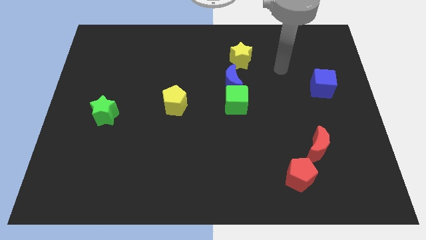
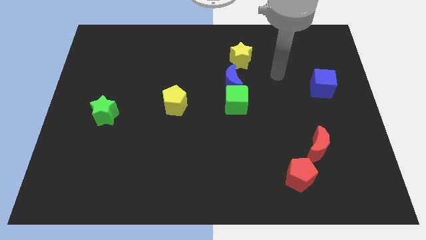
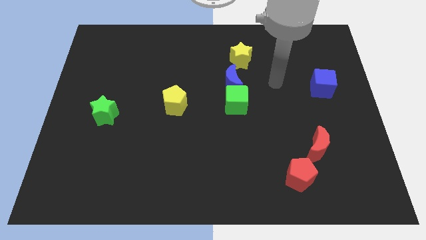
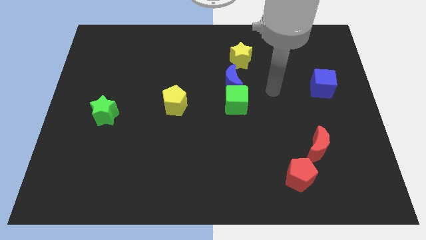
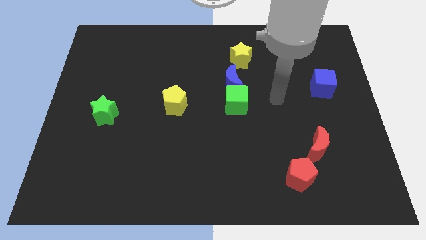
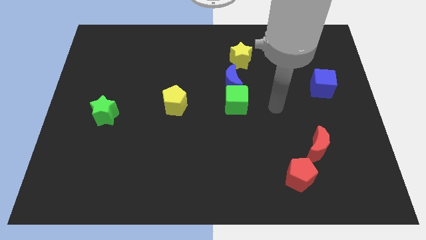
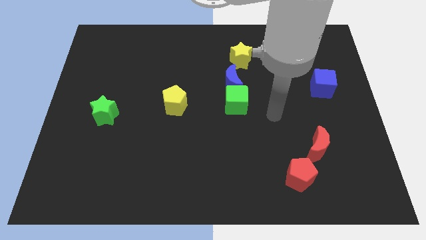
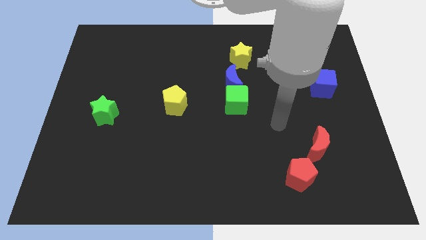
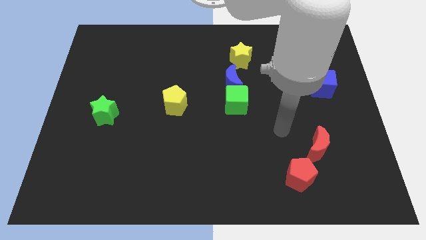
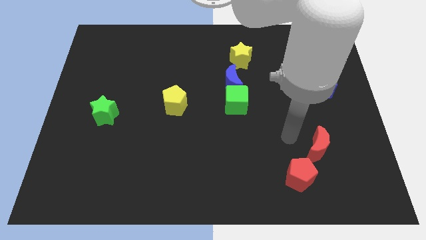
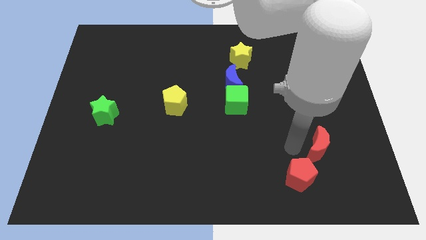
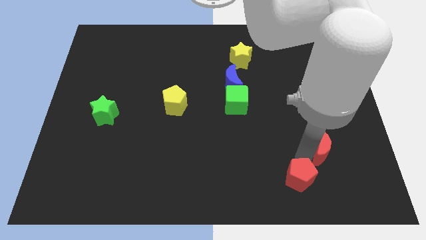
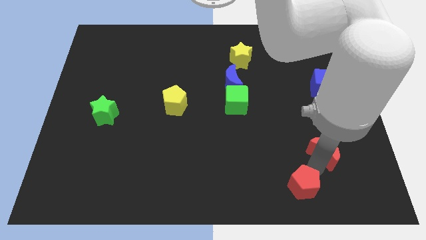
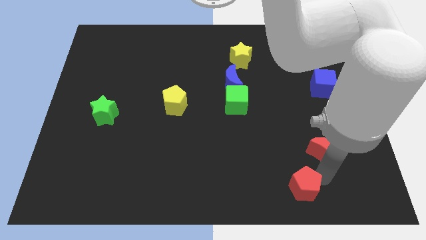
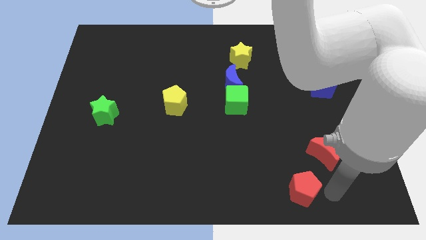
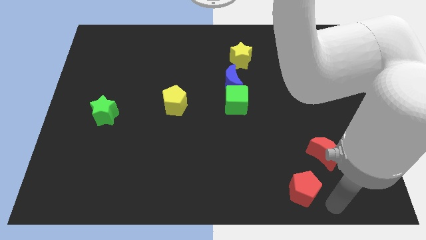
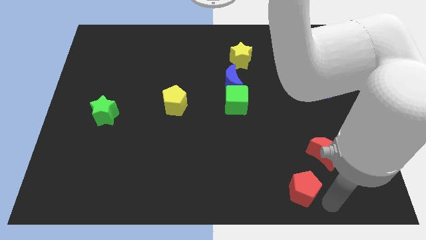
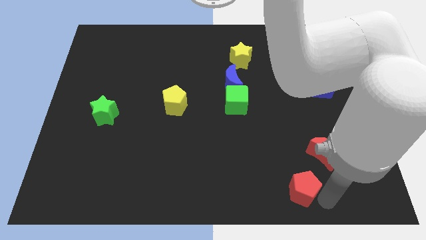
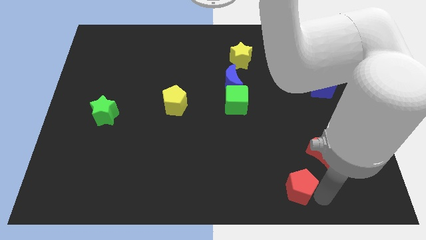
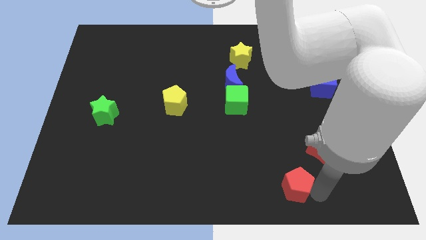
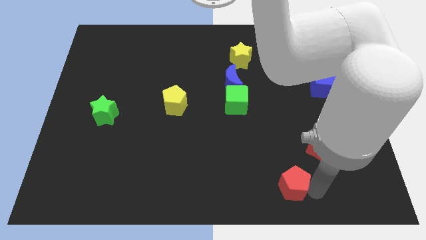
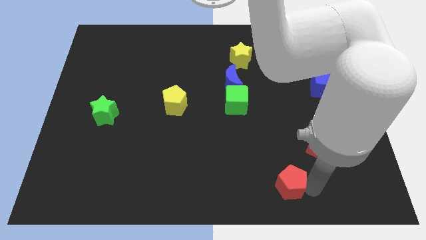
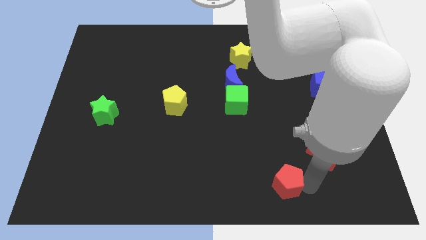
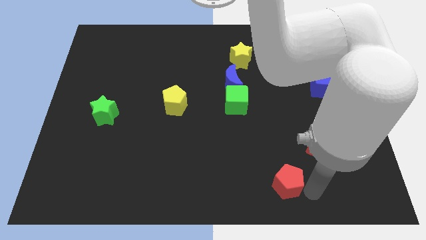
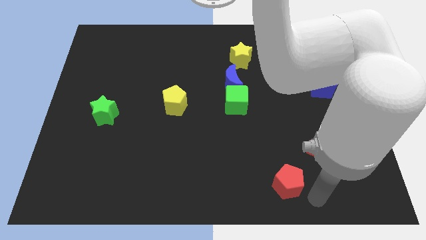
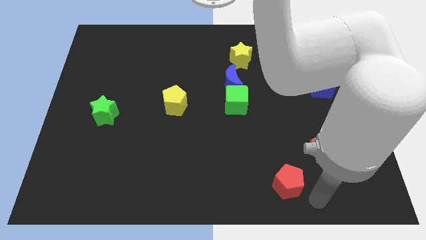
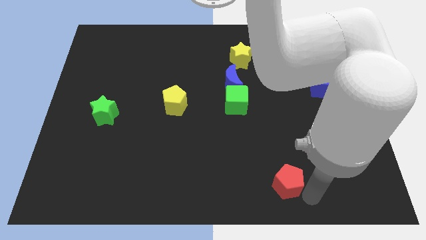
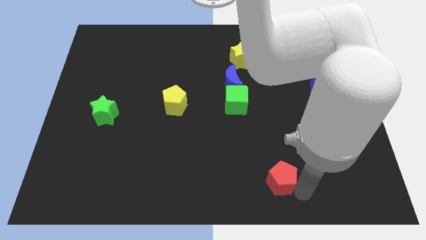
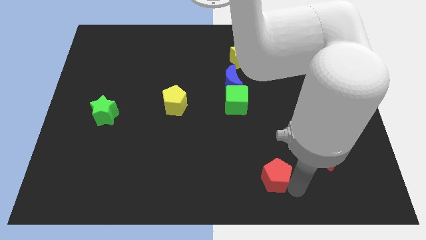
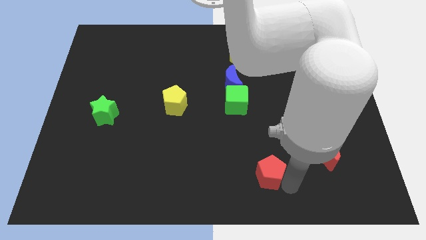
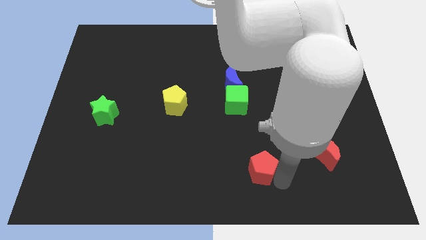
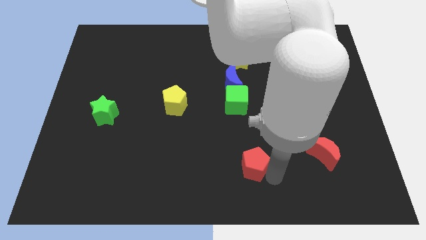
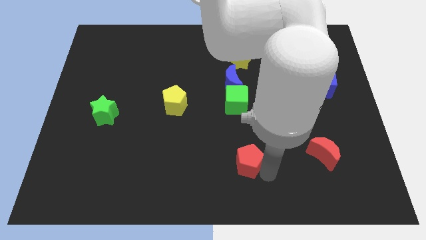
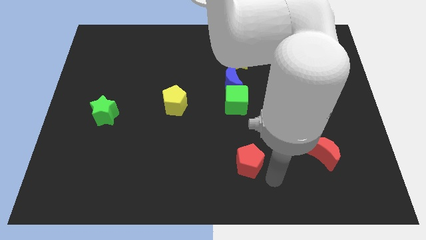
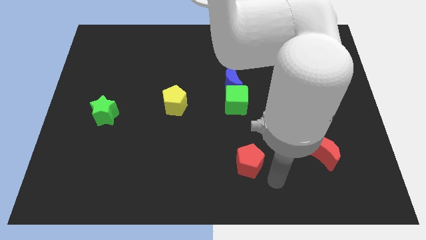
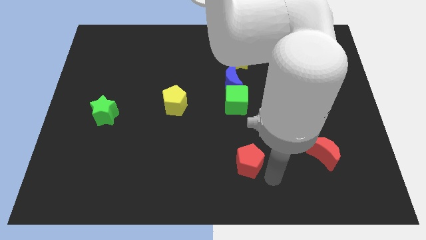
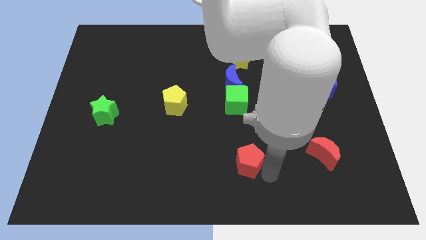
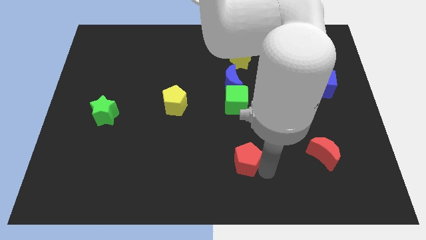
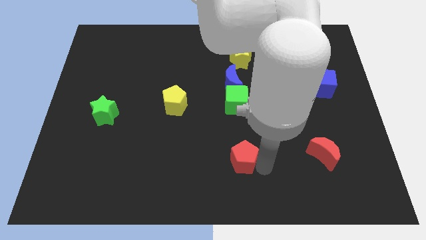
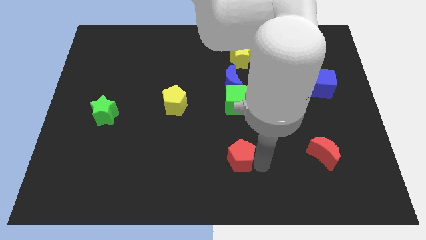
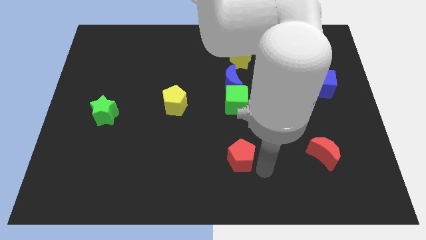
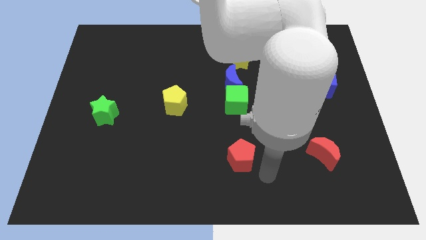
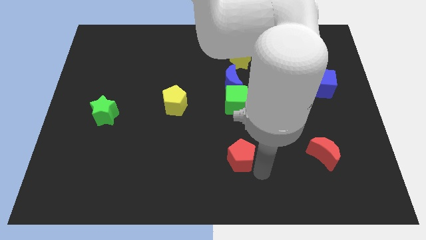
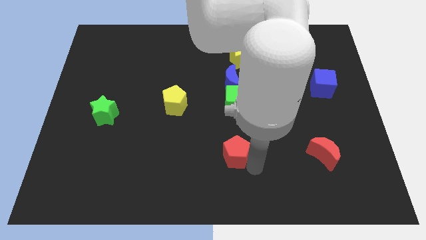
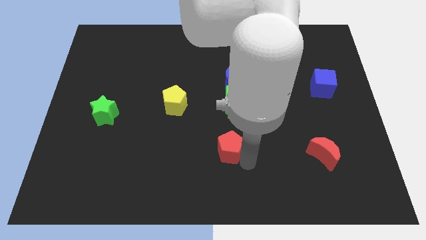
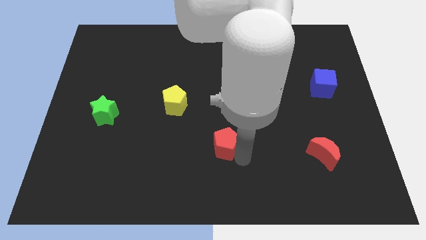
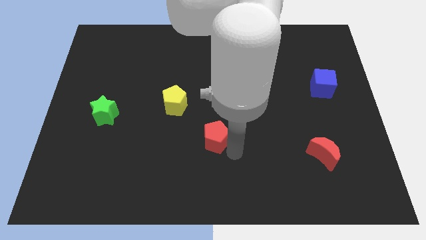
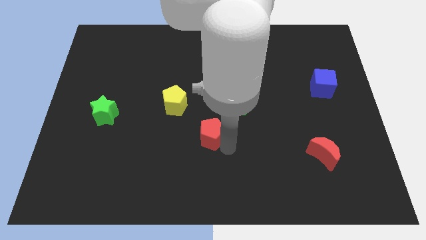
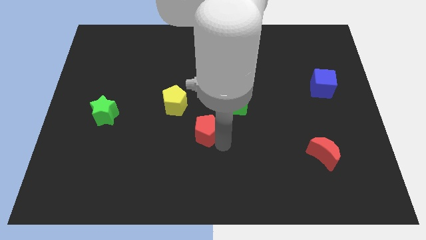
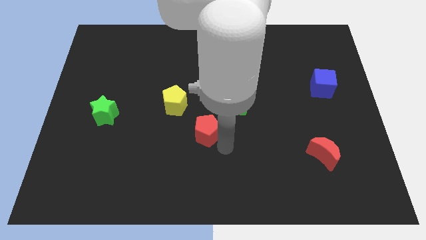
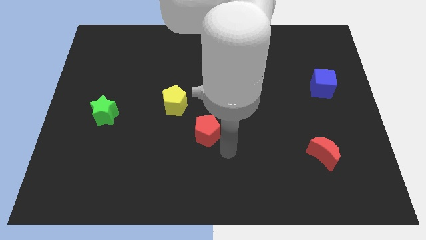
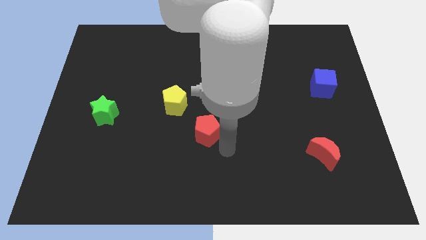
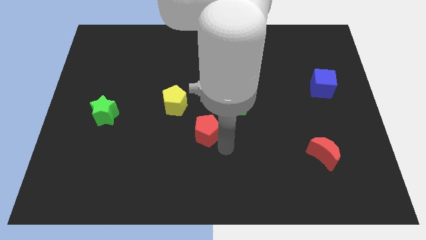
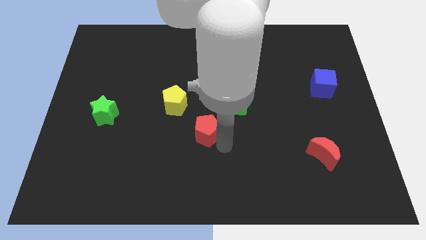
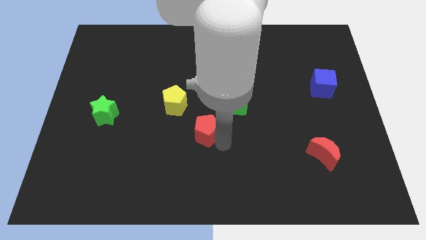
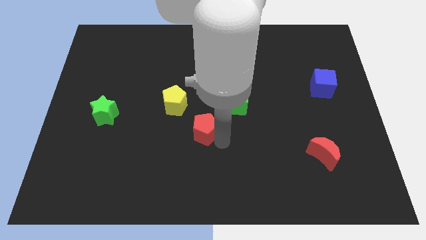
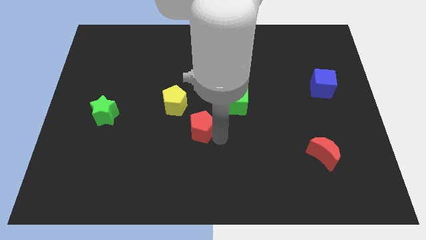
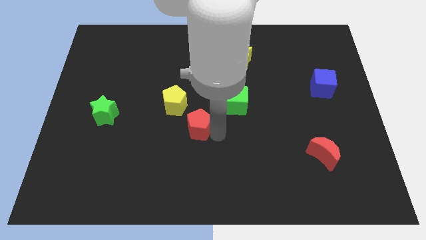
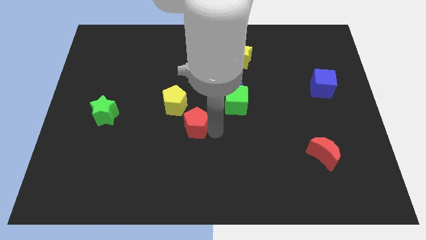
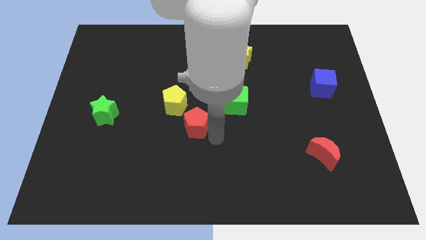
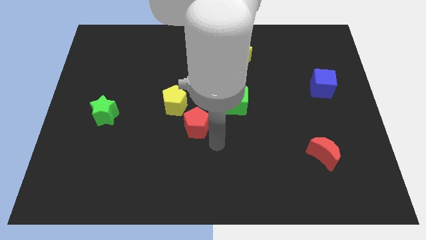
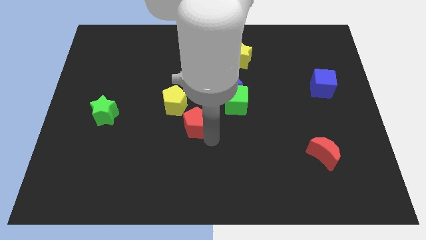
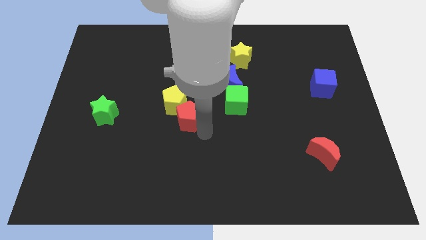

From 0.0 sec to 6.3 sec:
move the red pentagon next to the yellow pentagon

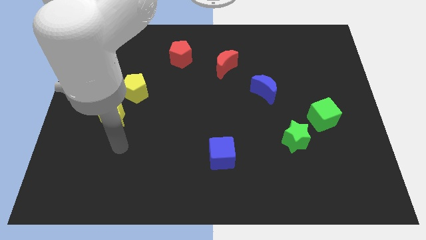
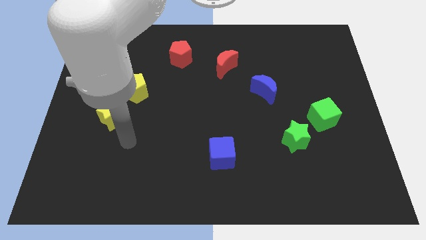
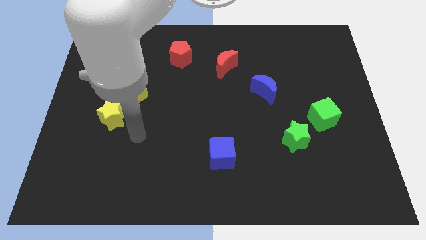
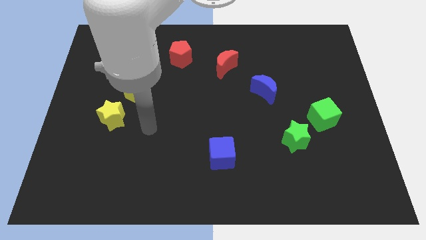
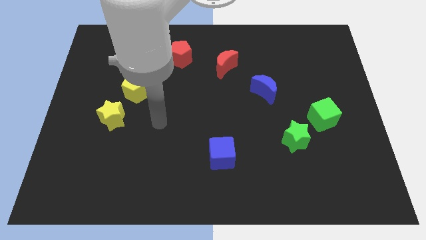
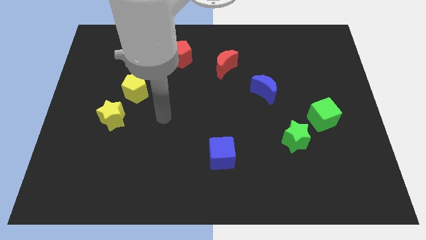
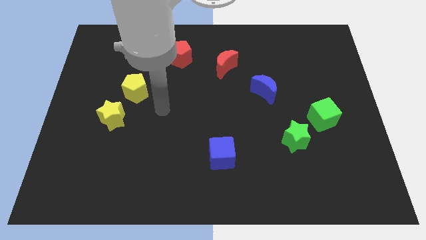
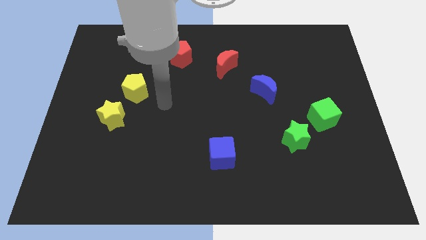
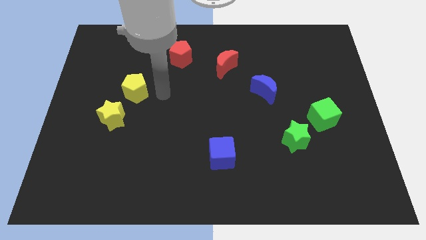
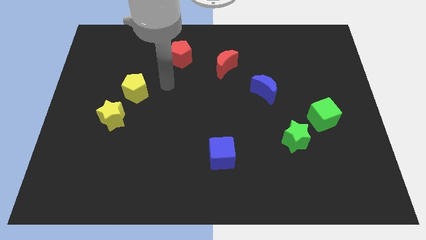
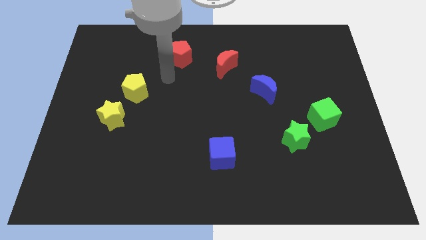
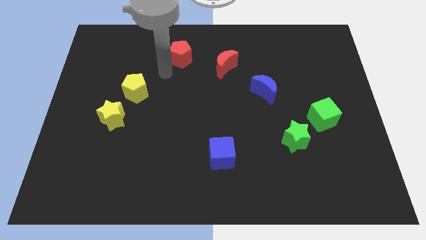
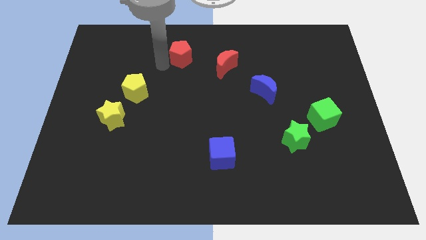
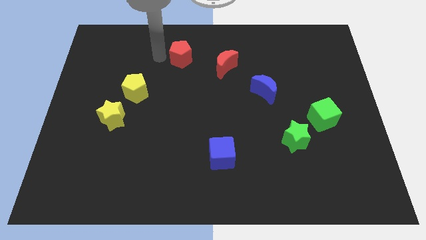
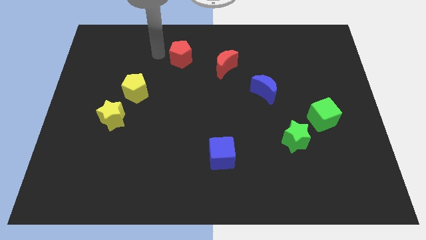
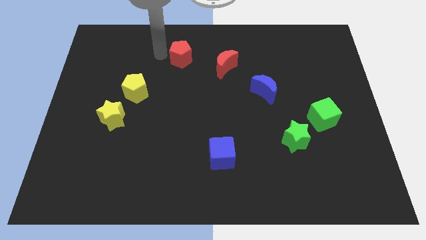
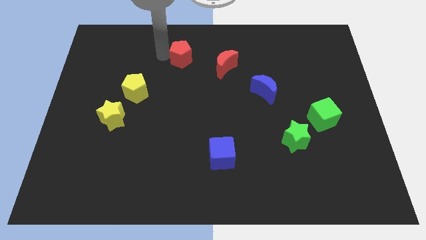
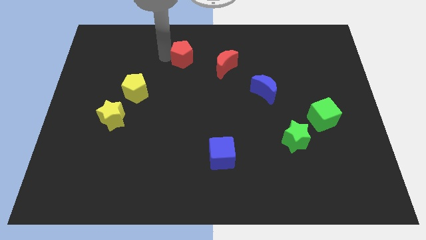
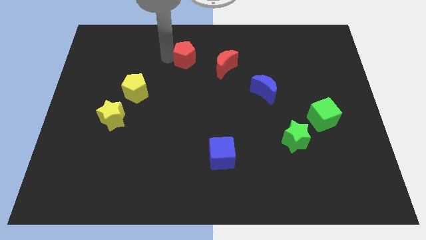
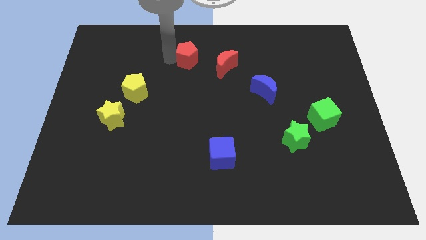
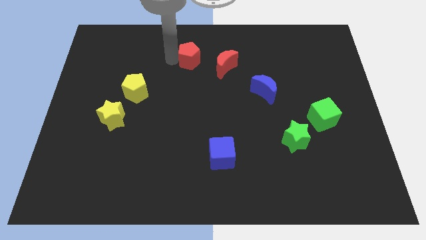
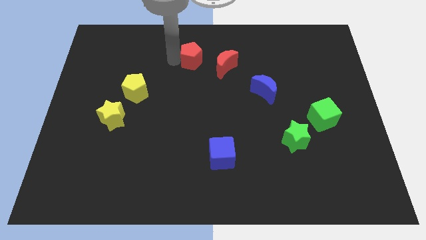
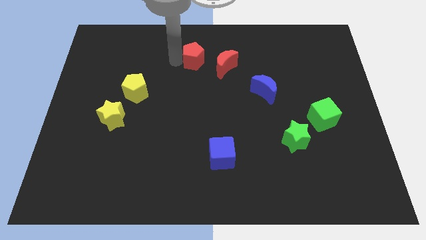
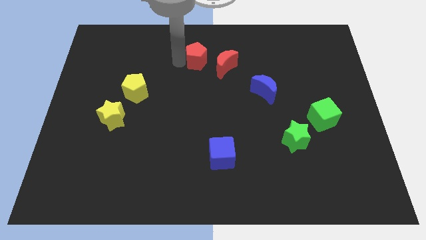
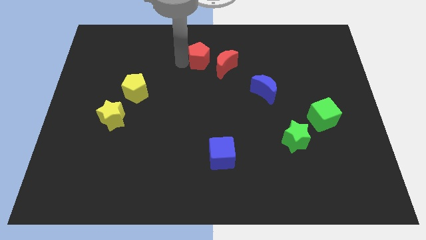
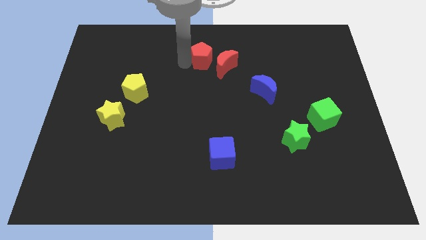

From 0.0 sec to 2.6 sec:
move the red pentagon to the red moon
